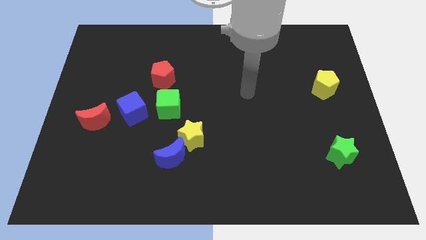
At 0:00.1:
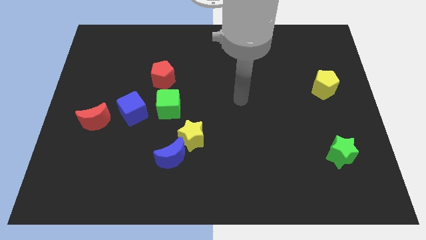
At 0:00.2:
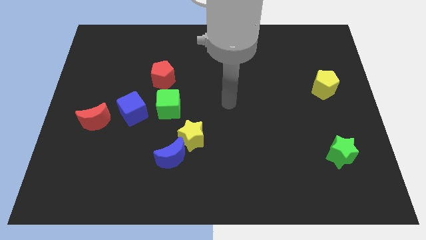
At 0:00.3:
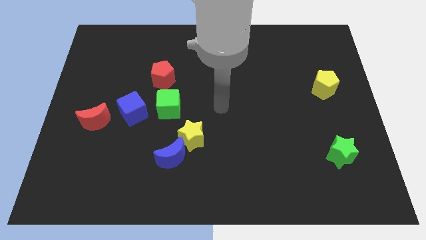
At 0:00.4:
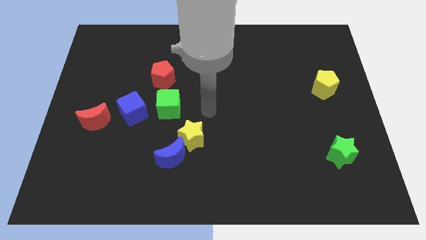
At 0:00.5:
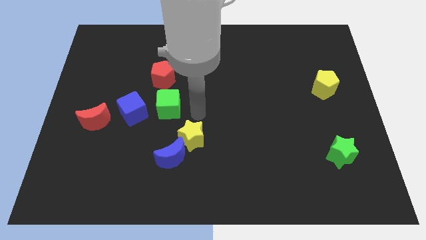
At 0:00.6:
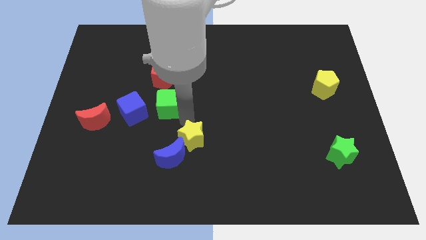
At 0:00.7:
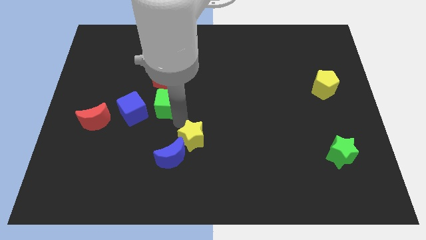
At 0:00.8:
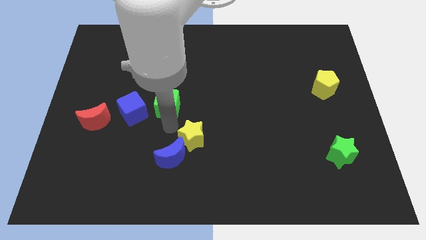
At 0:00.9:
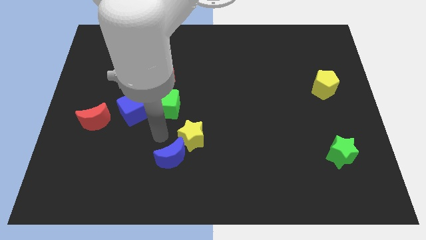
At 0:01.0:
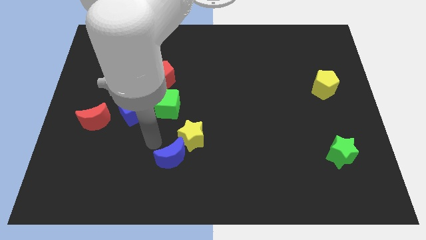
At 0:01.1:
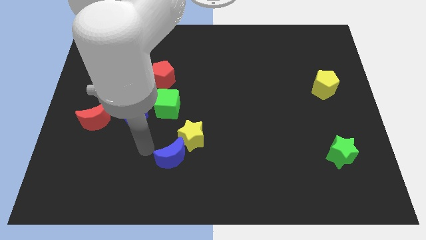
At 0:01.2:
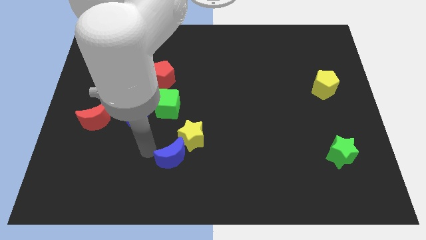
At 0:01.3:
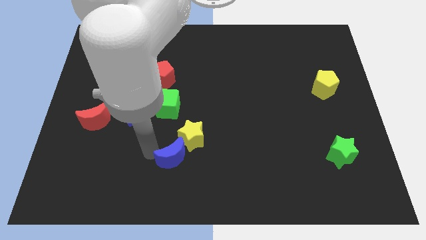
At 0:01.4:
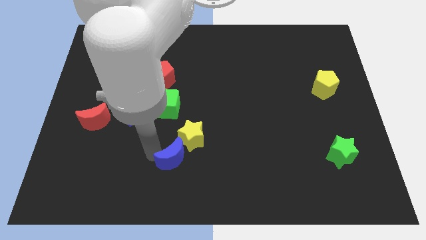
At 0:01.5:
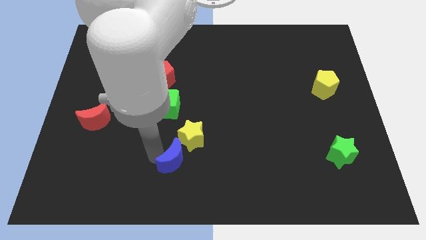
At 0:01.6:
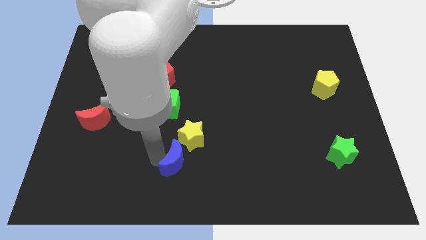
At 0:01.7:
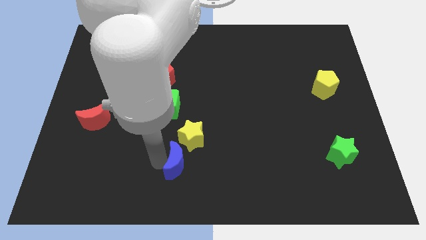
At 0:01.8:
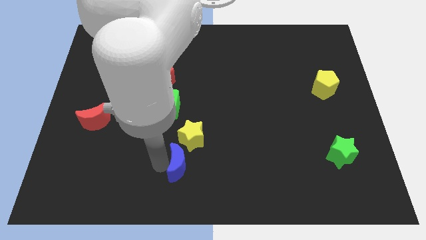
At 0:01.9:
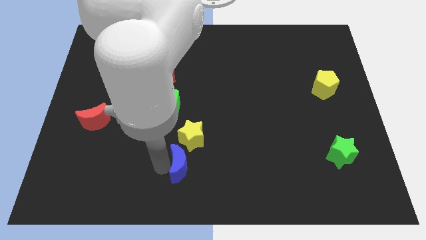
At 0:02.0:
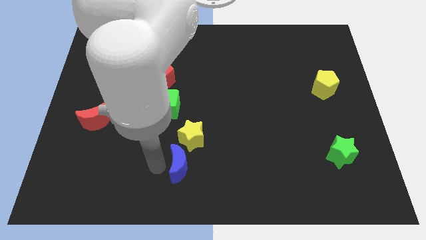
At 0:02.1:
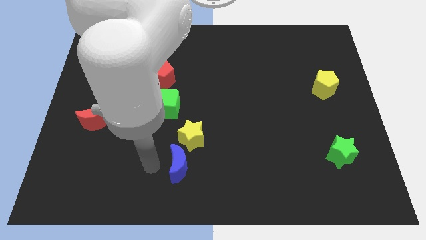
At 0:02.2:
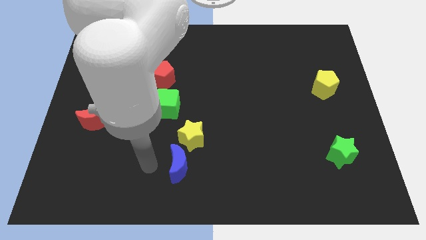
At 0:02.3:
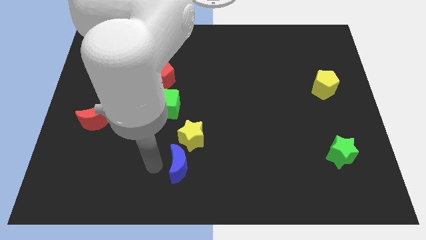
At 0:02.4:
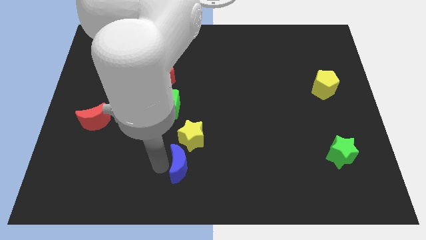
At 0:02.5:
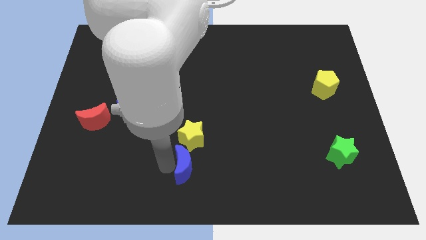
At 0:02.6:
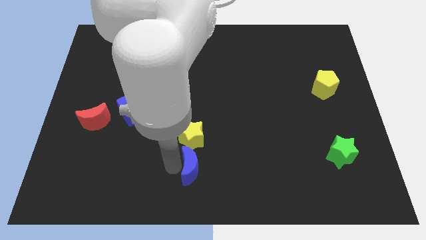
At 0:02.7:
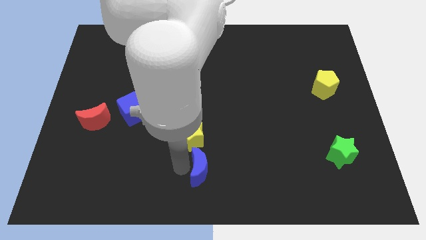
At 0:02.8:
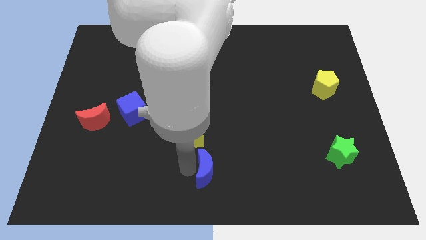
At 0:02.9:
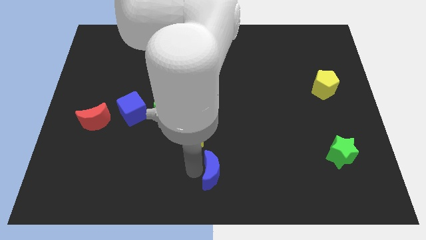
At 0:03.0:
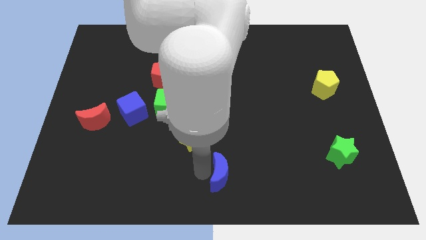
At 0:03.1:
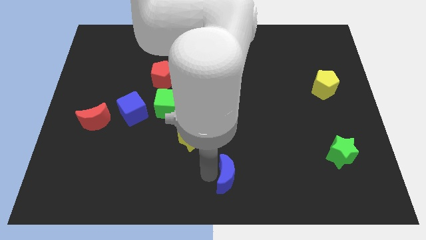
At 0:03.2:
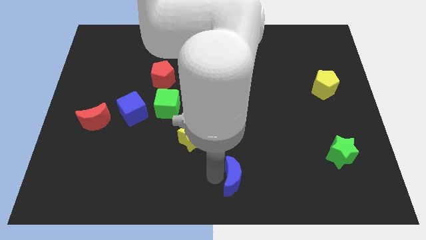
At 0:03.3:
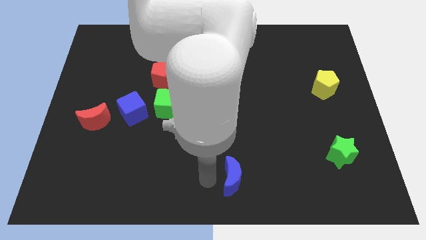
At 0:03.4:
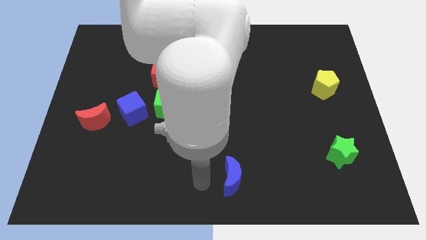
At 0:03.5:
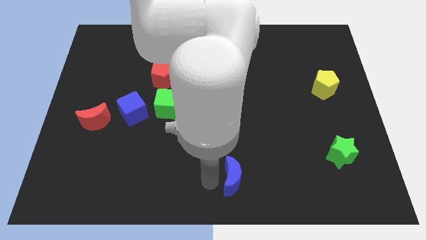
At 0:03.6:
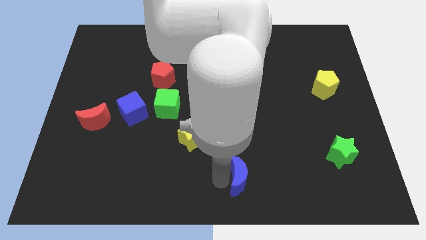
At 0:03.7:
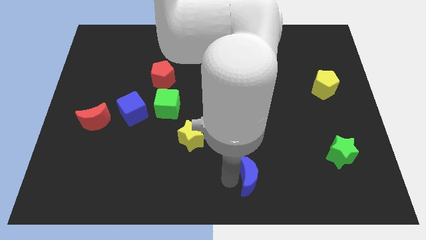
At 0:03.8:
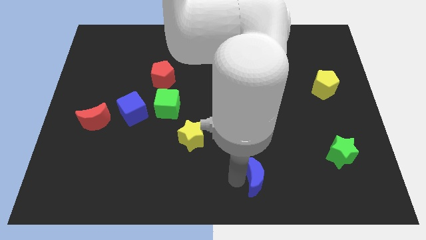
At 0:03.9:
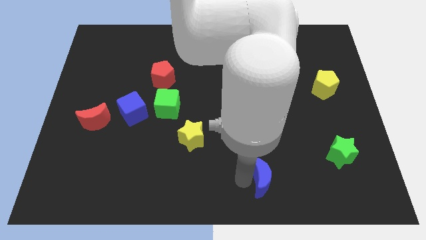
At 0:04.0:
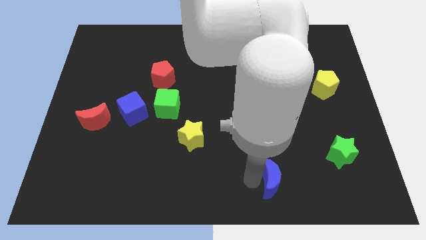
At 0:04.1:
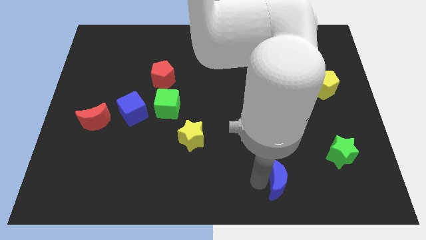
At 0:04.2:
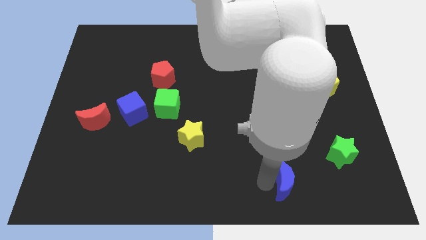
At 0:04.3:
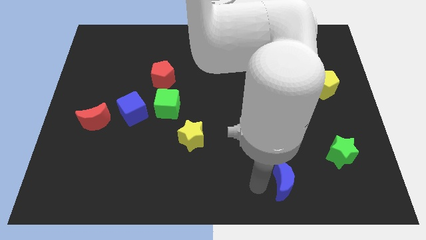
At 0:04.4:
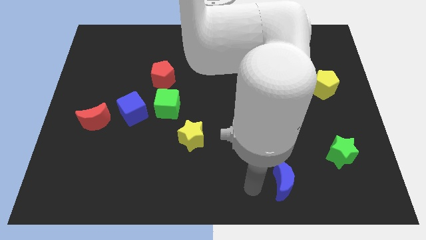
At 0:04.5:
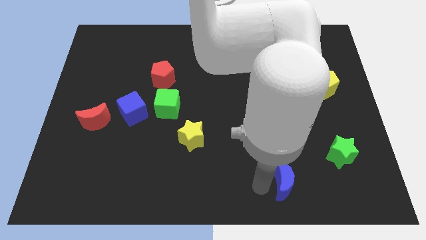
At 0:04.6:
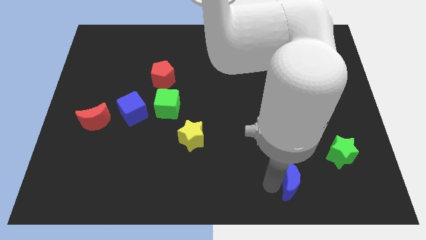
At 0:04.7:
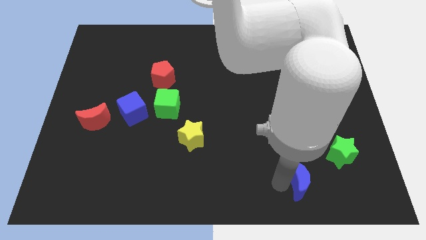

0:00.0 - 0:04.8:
slide the blue moon to the bottom left of the green star

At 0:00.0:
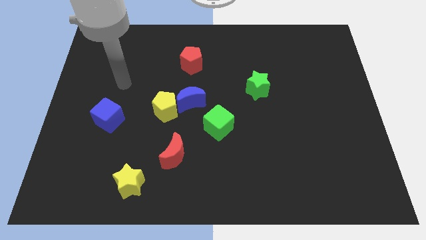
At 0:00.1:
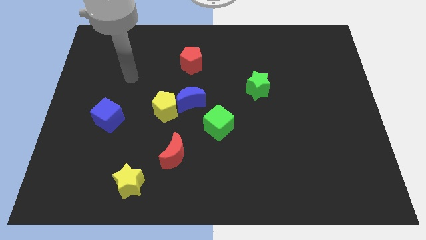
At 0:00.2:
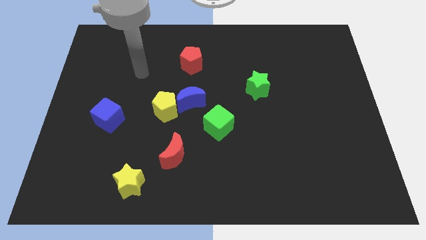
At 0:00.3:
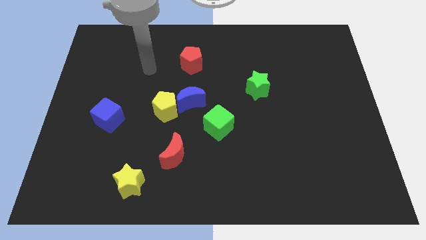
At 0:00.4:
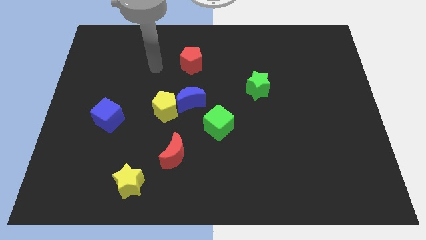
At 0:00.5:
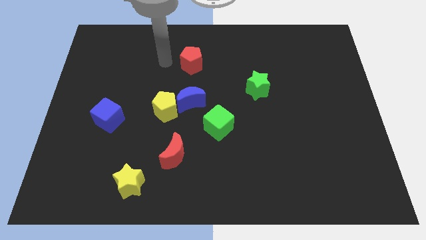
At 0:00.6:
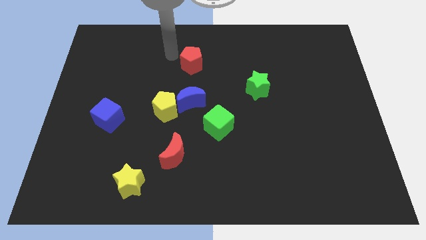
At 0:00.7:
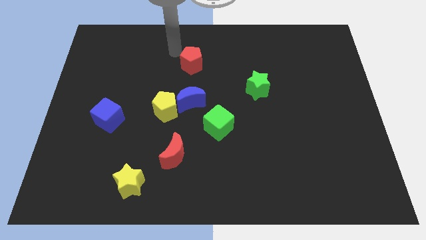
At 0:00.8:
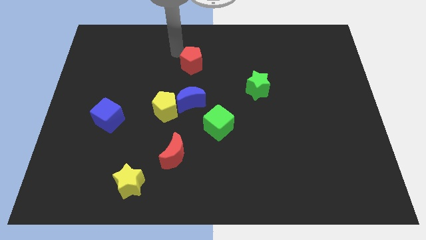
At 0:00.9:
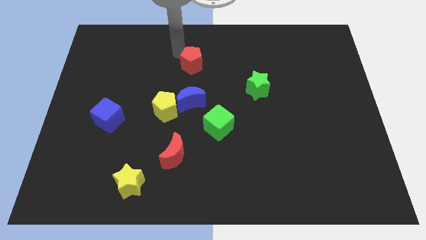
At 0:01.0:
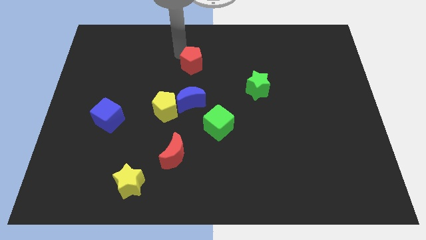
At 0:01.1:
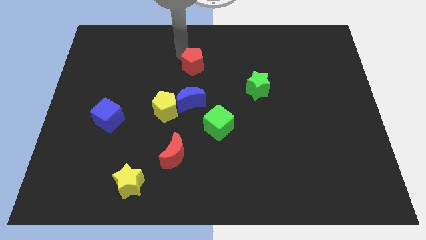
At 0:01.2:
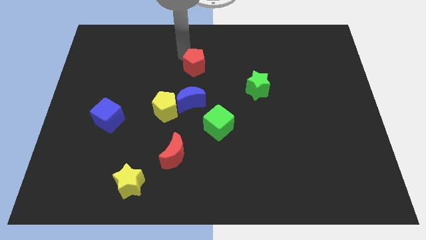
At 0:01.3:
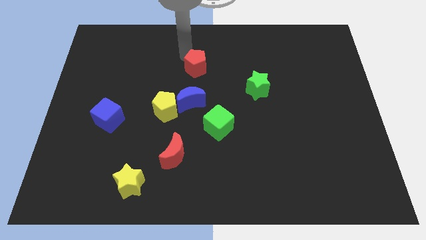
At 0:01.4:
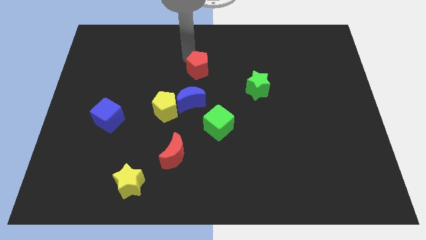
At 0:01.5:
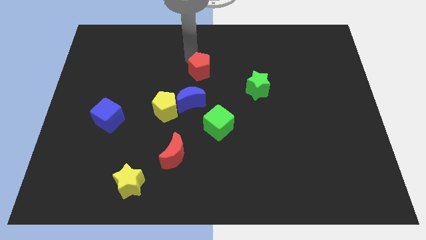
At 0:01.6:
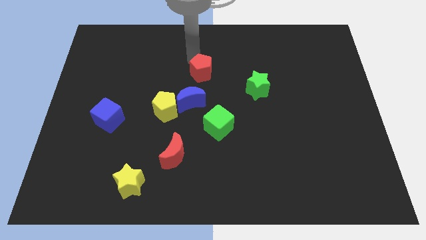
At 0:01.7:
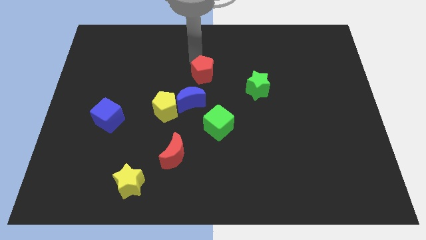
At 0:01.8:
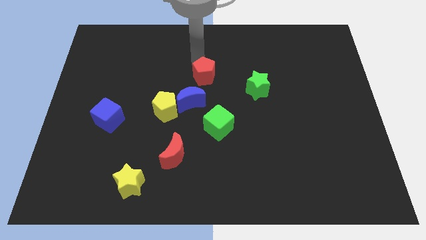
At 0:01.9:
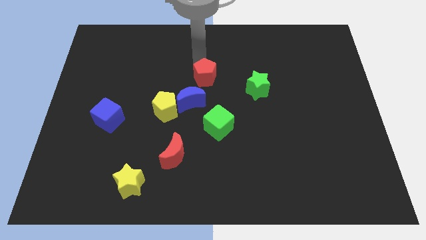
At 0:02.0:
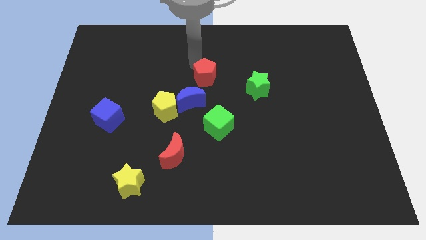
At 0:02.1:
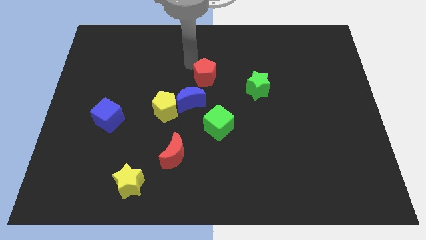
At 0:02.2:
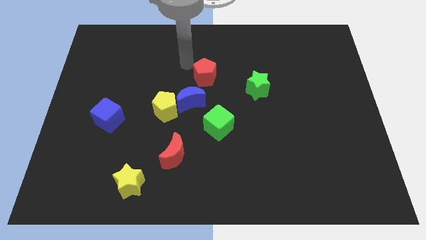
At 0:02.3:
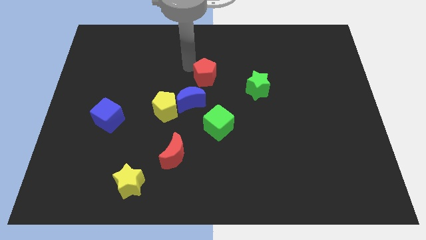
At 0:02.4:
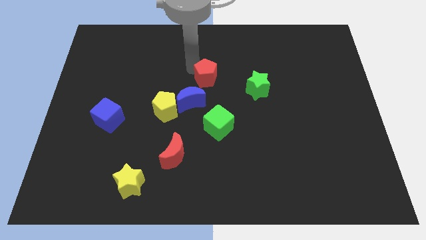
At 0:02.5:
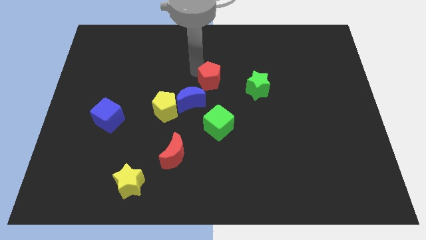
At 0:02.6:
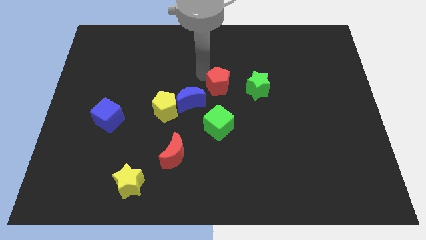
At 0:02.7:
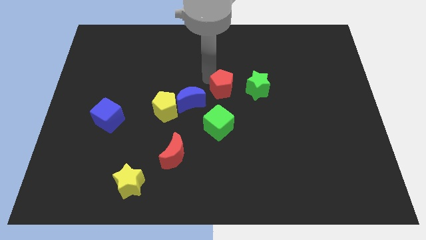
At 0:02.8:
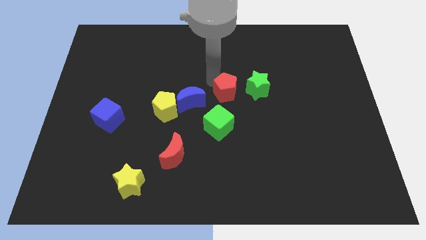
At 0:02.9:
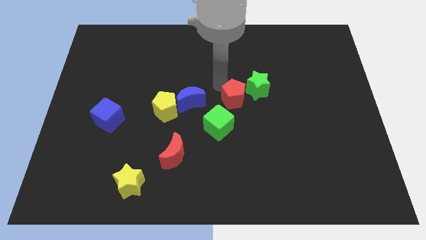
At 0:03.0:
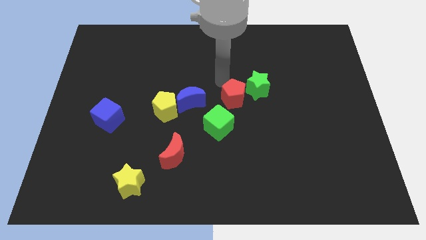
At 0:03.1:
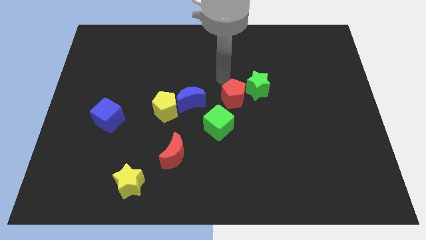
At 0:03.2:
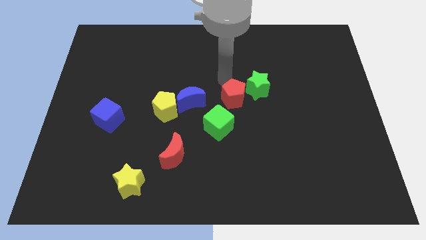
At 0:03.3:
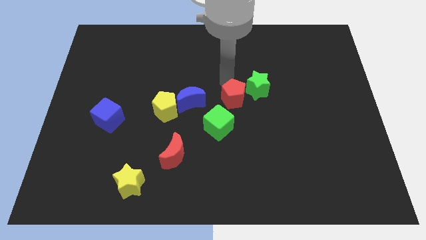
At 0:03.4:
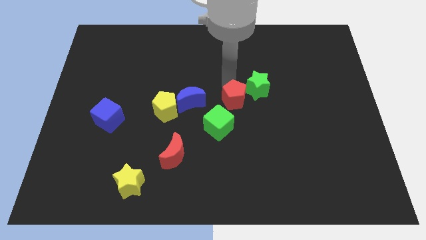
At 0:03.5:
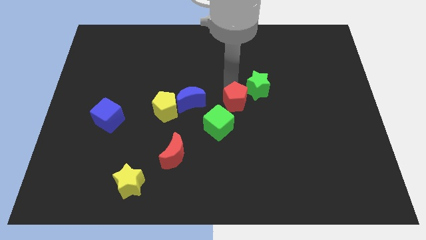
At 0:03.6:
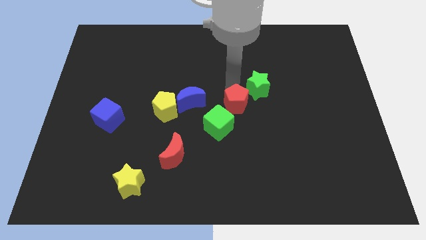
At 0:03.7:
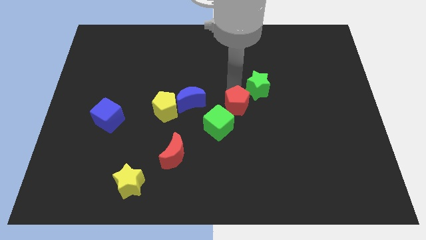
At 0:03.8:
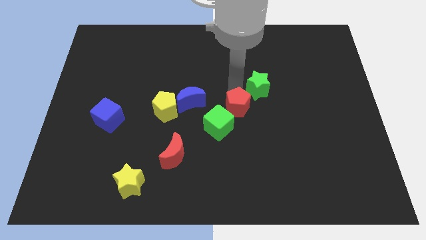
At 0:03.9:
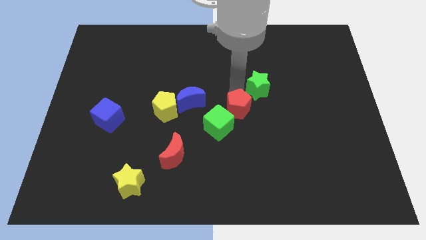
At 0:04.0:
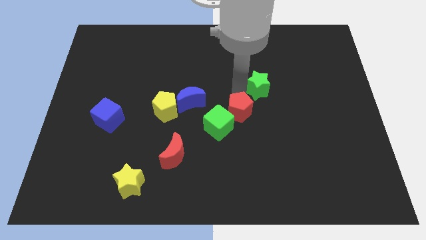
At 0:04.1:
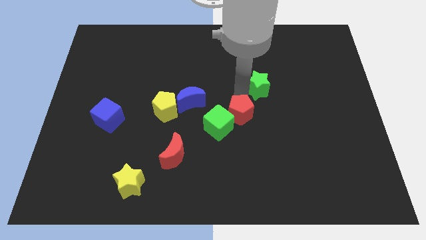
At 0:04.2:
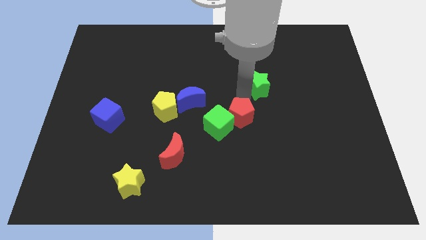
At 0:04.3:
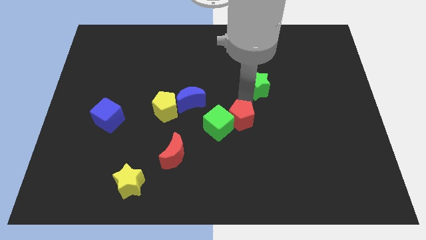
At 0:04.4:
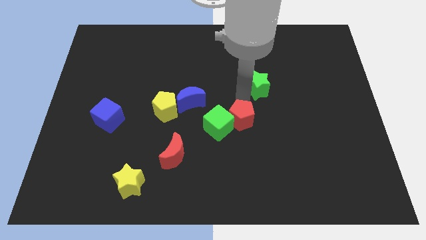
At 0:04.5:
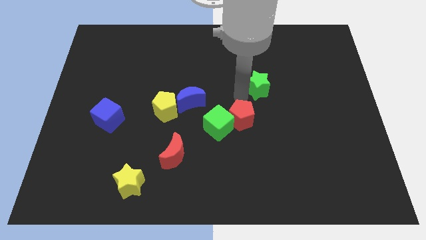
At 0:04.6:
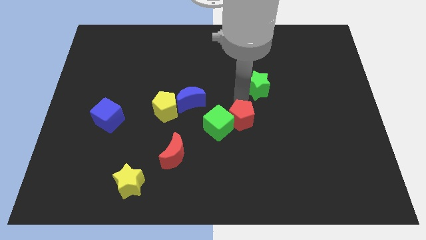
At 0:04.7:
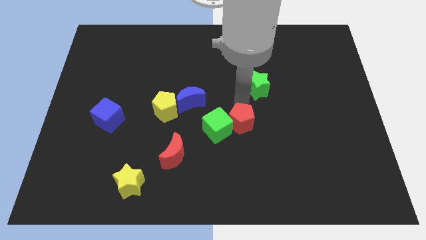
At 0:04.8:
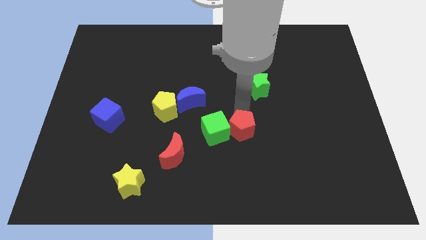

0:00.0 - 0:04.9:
move the red pentagon to the bottom right side of the green cube
